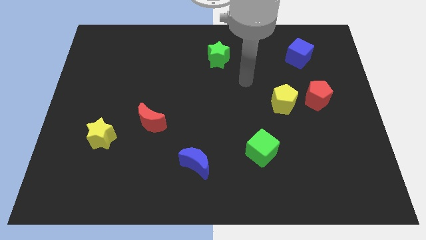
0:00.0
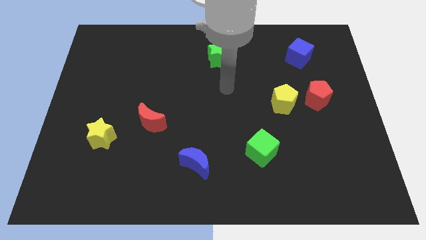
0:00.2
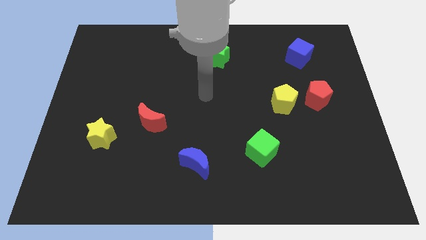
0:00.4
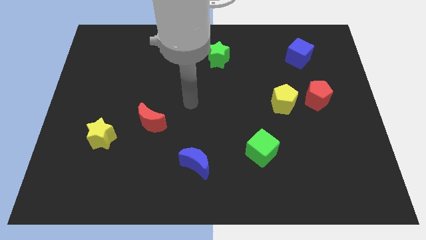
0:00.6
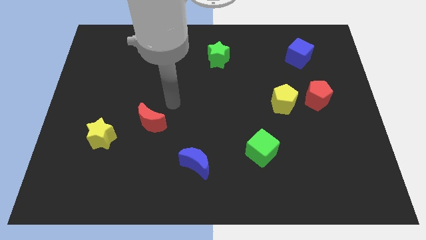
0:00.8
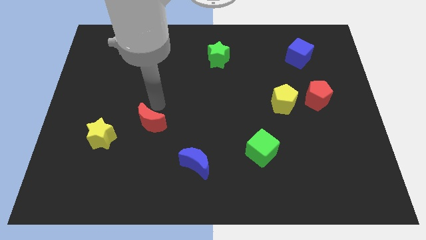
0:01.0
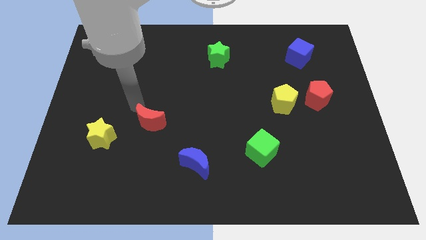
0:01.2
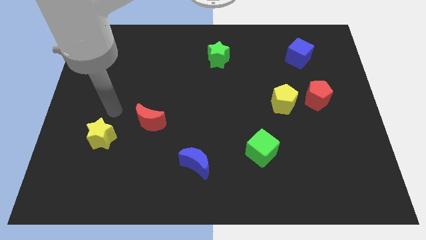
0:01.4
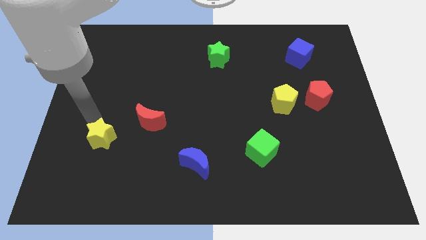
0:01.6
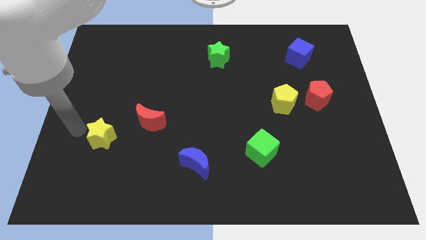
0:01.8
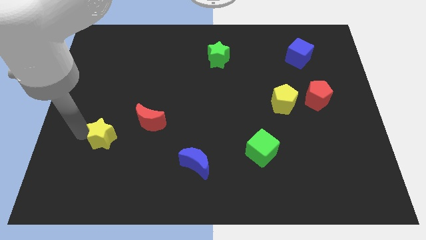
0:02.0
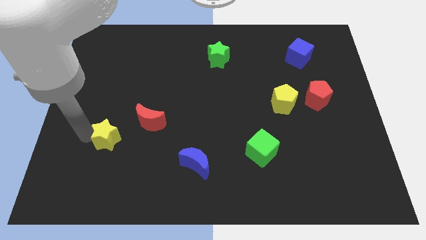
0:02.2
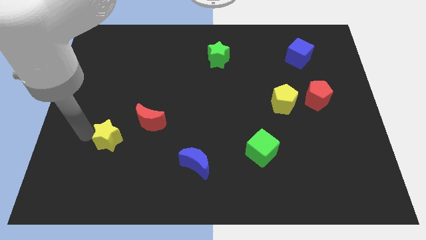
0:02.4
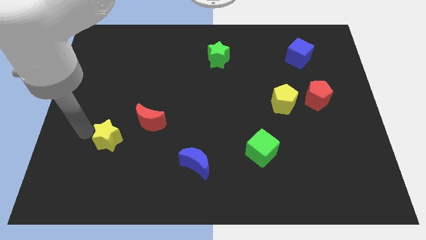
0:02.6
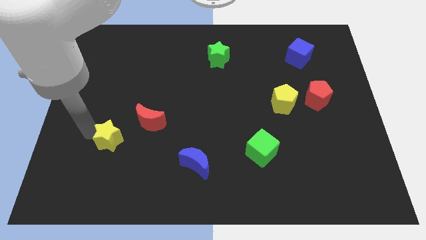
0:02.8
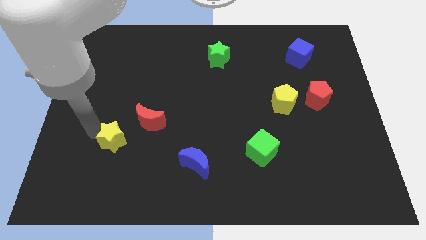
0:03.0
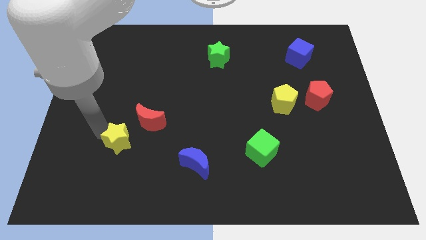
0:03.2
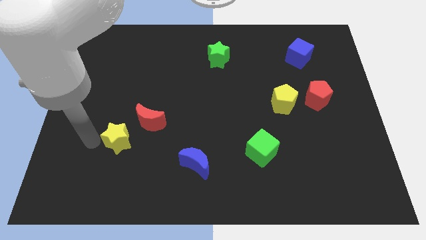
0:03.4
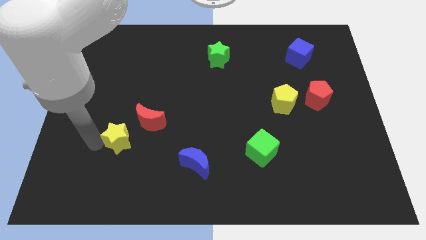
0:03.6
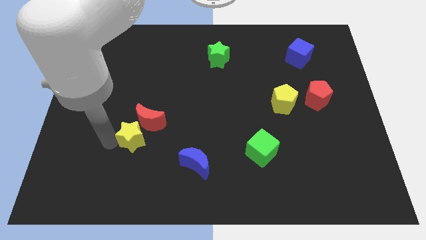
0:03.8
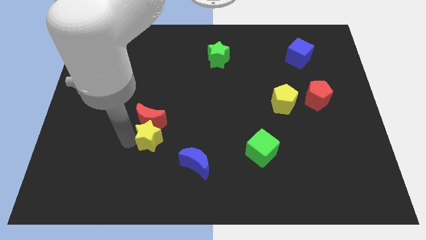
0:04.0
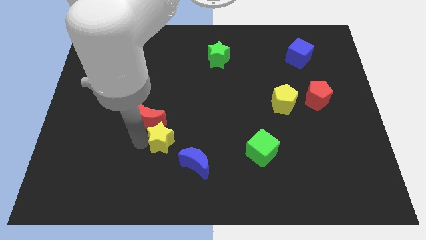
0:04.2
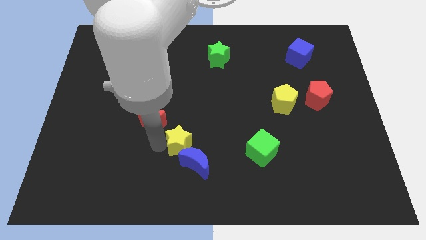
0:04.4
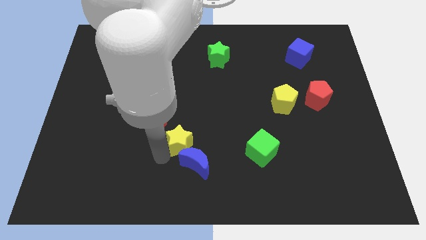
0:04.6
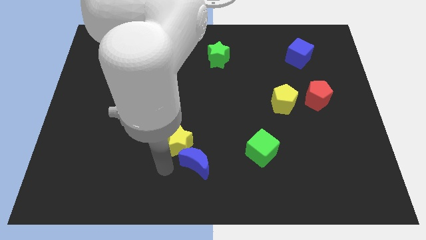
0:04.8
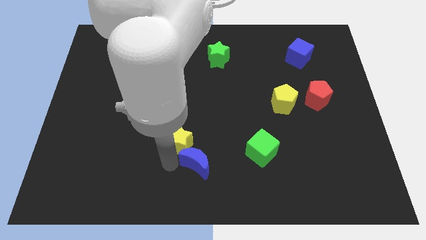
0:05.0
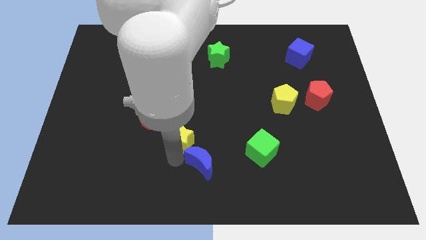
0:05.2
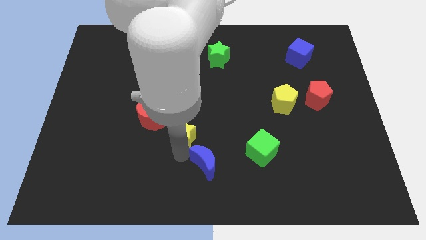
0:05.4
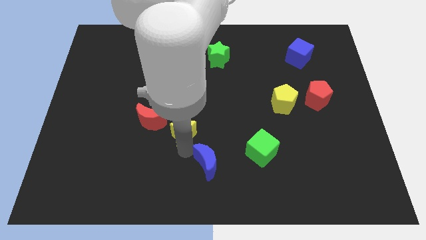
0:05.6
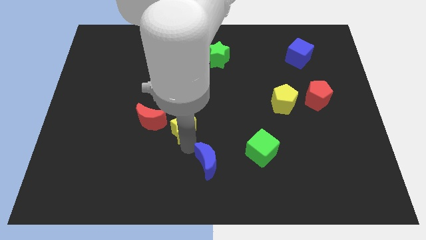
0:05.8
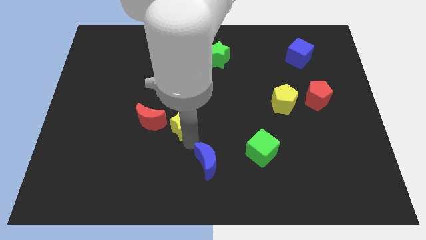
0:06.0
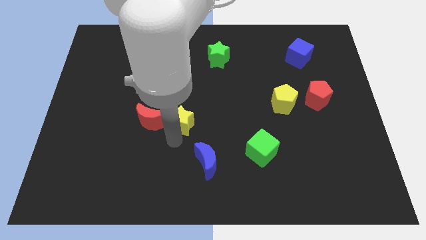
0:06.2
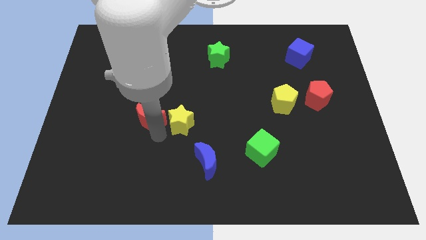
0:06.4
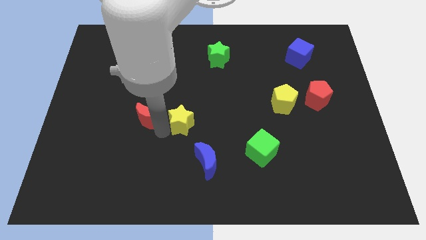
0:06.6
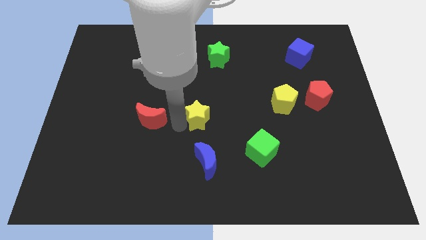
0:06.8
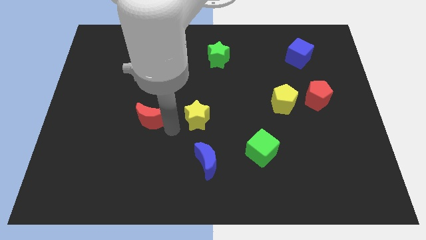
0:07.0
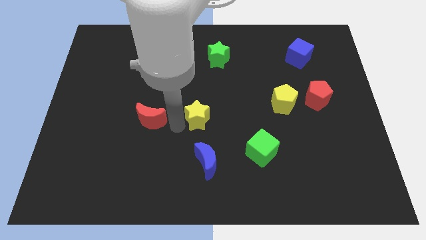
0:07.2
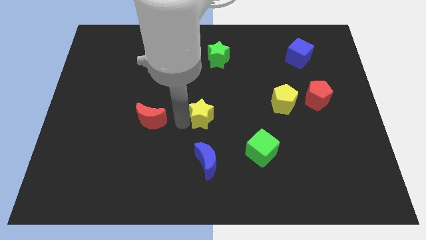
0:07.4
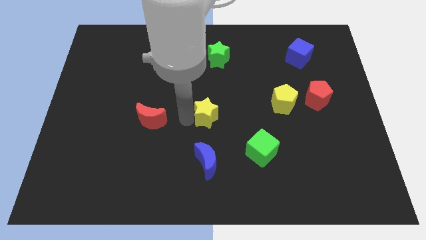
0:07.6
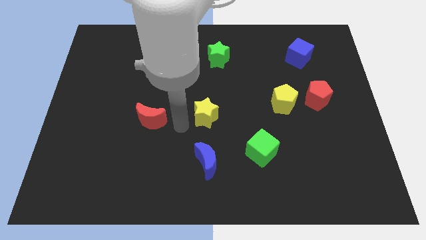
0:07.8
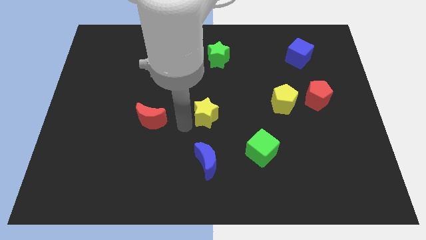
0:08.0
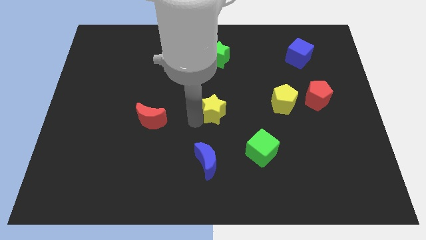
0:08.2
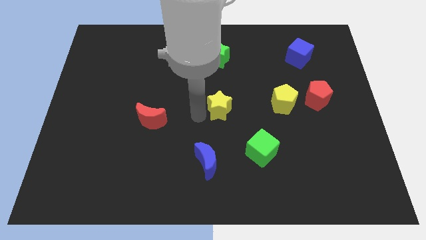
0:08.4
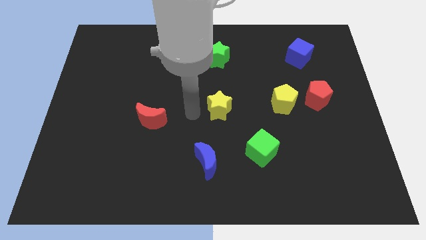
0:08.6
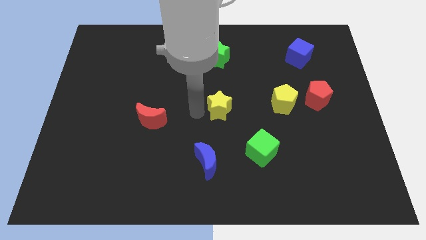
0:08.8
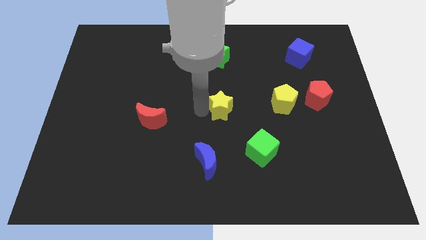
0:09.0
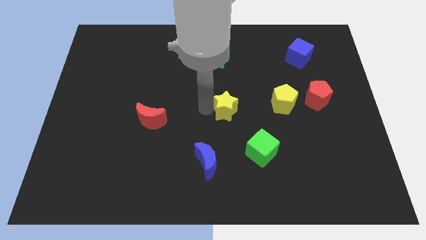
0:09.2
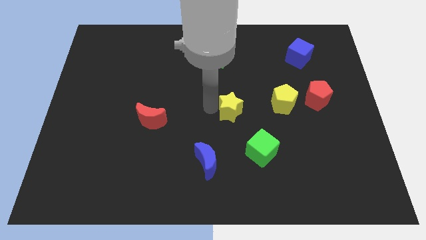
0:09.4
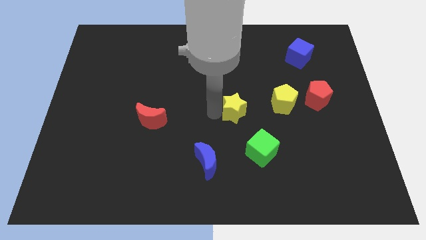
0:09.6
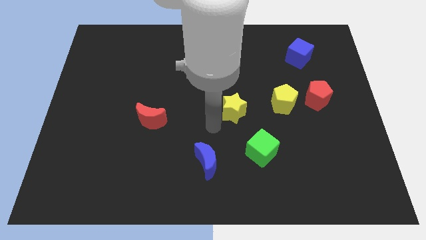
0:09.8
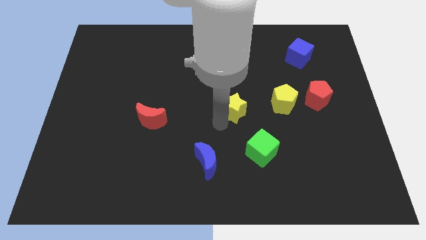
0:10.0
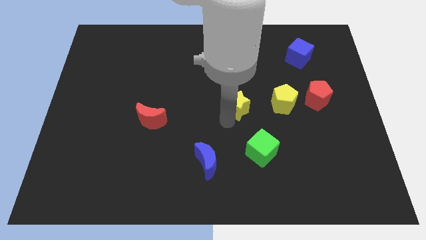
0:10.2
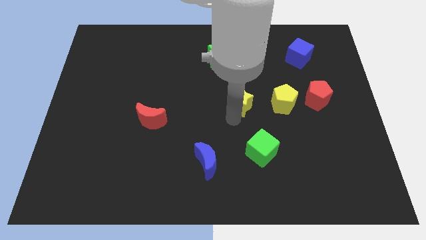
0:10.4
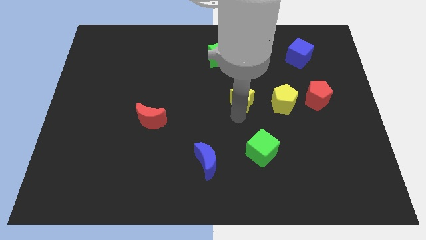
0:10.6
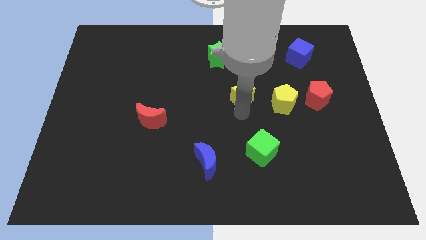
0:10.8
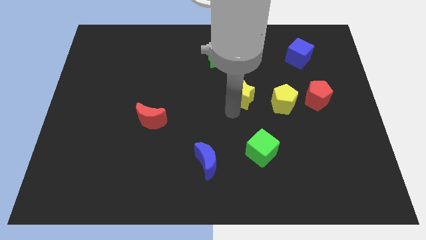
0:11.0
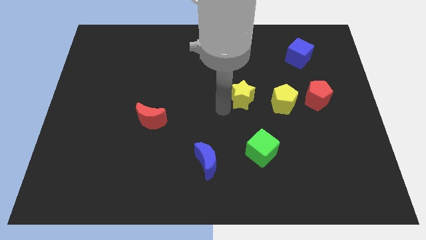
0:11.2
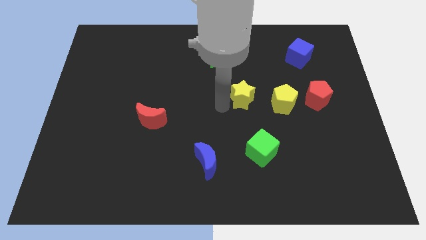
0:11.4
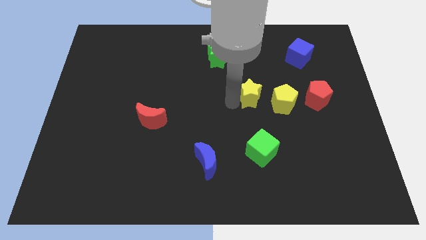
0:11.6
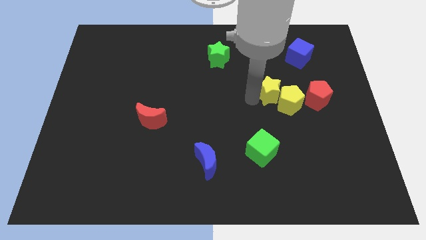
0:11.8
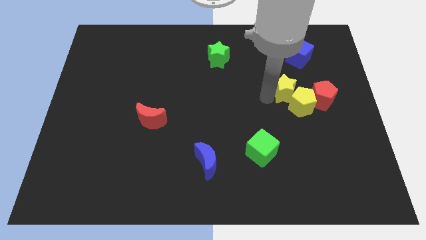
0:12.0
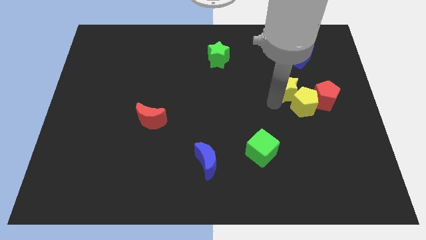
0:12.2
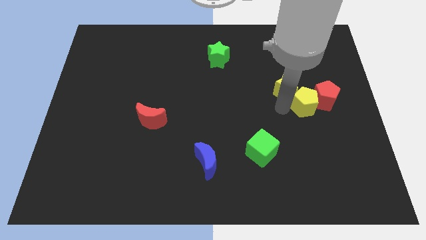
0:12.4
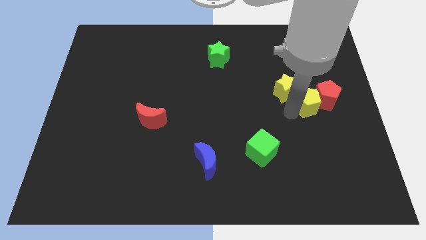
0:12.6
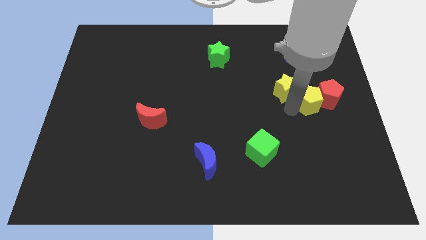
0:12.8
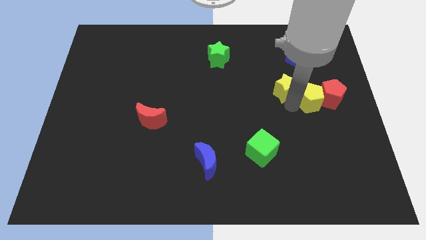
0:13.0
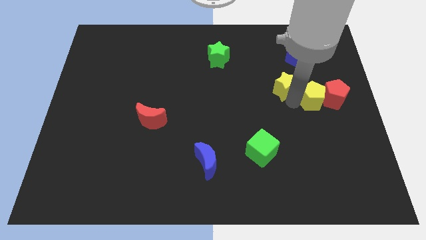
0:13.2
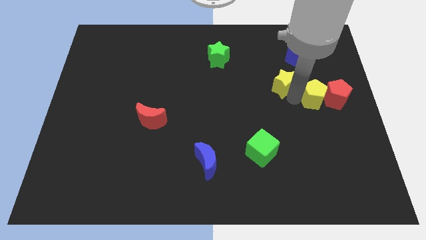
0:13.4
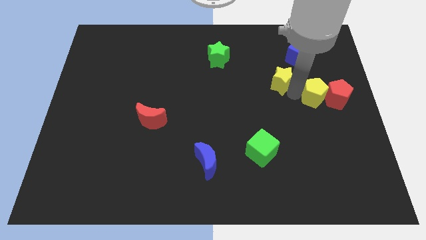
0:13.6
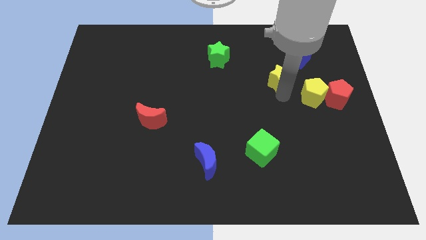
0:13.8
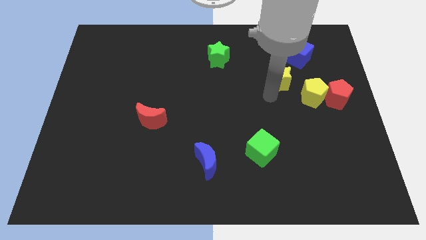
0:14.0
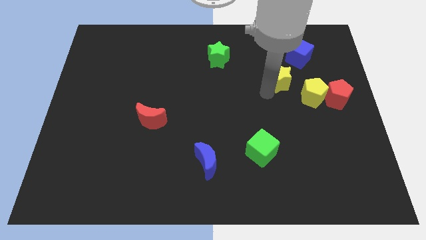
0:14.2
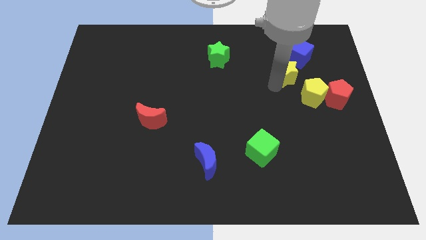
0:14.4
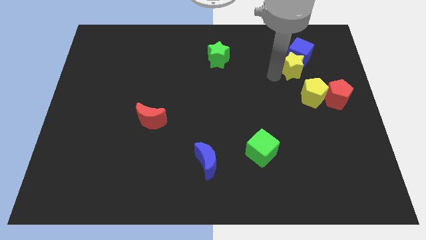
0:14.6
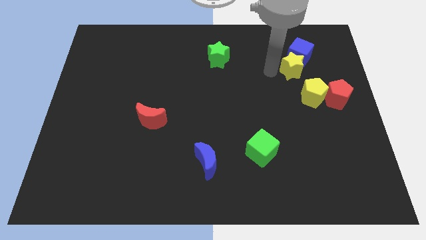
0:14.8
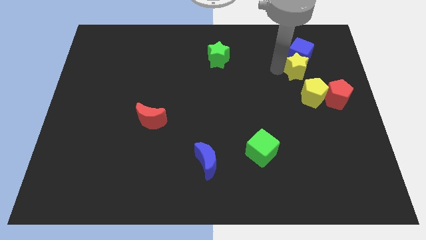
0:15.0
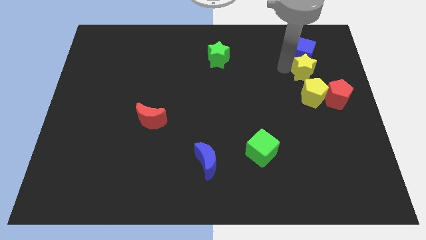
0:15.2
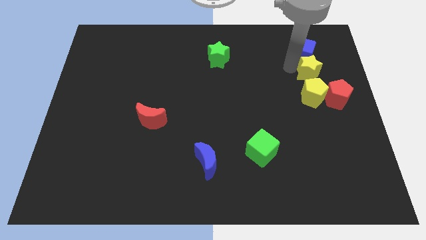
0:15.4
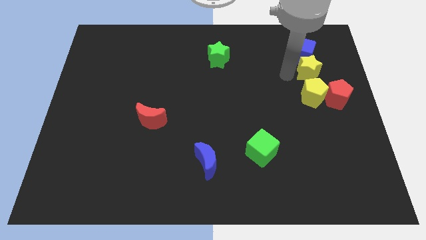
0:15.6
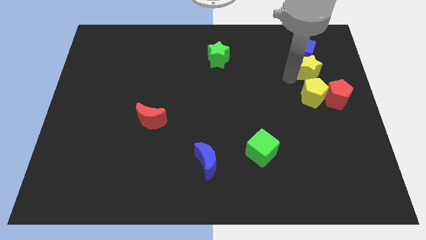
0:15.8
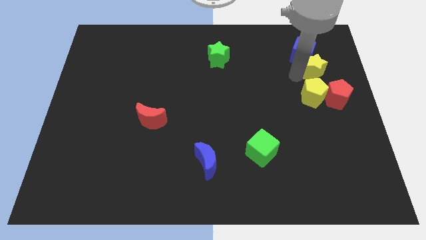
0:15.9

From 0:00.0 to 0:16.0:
move the yellow star to the top of the red pentagon

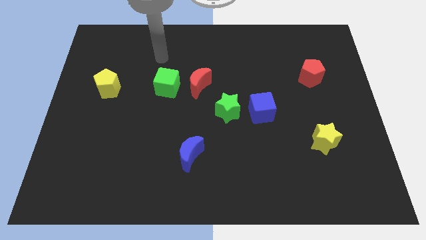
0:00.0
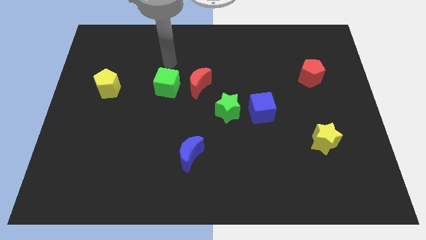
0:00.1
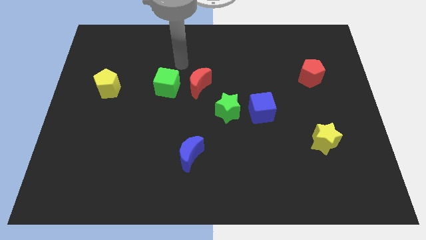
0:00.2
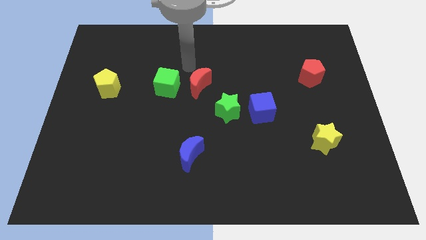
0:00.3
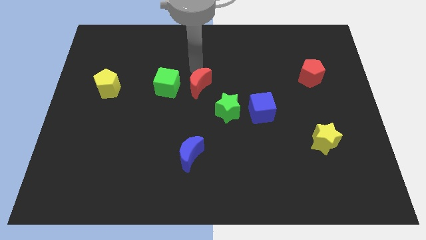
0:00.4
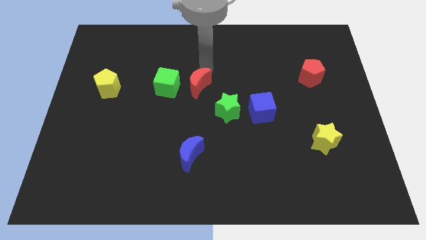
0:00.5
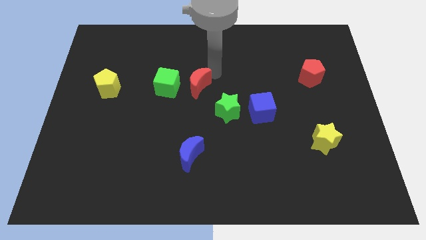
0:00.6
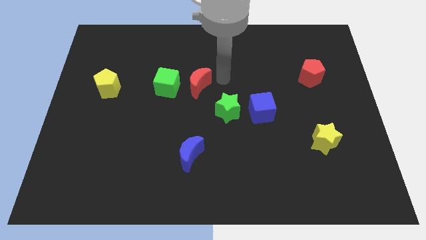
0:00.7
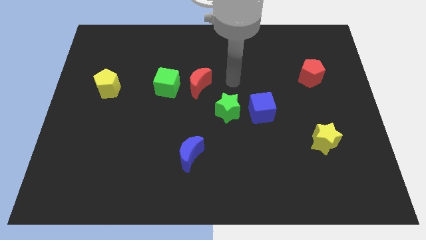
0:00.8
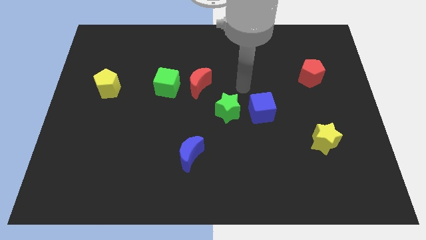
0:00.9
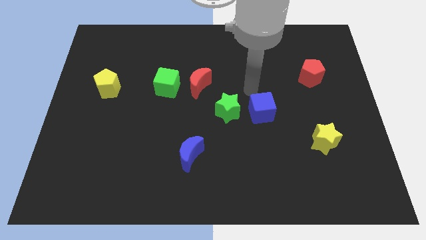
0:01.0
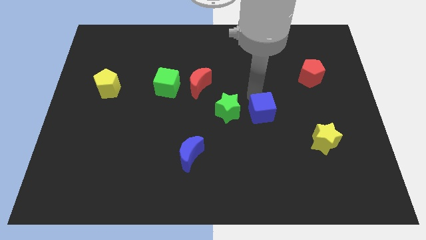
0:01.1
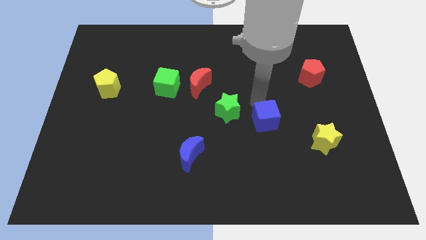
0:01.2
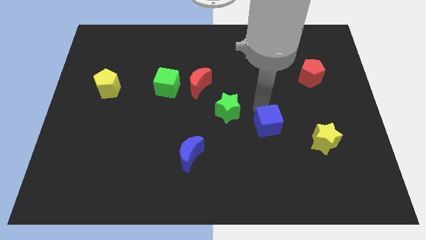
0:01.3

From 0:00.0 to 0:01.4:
push the blue cube to the left side of the yellow star
